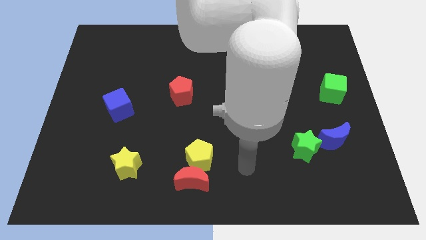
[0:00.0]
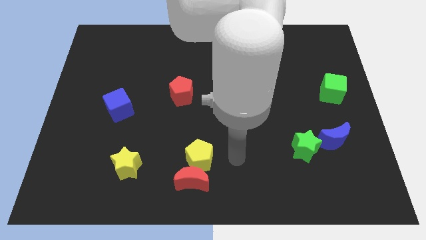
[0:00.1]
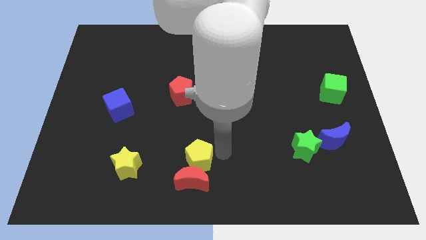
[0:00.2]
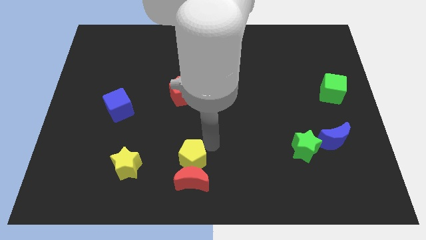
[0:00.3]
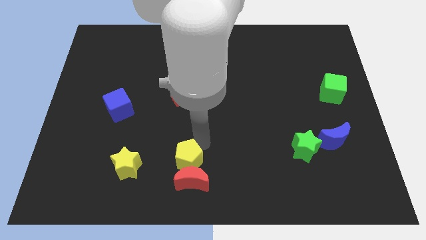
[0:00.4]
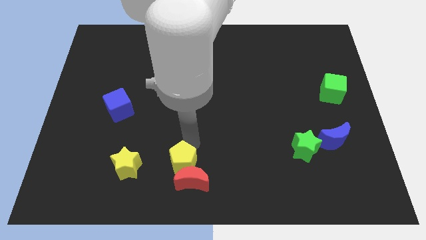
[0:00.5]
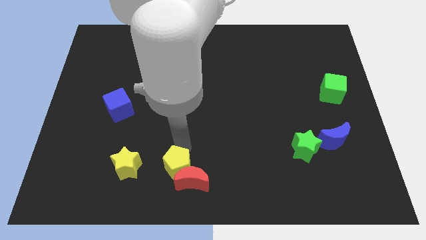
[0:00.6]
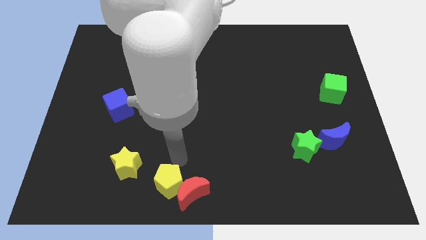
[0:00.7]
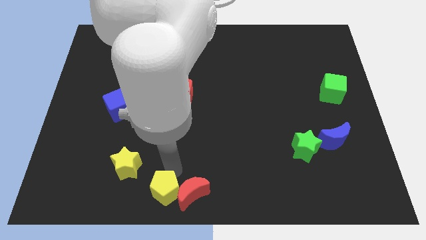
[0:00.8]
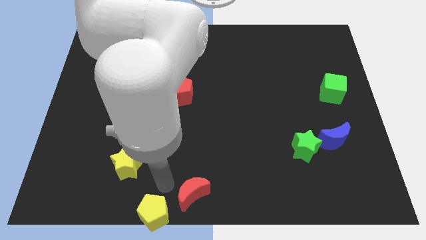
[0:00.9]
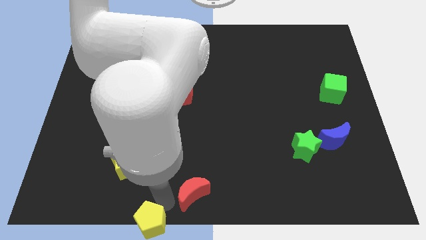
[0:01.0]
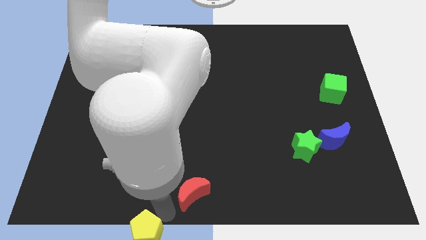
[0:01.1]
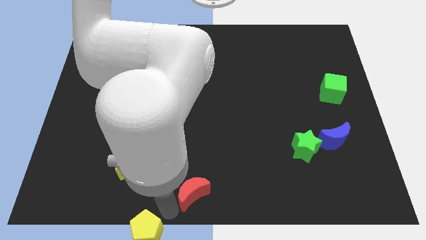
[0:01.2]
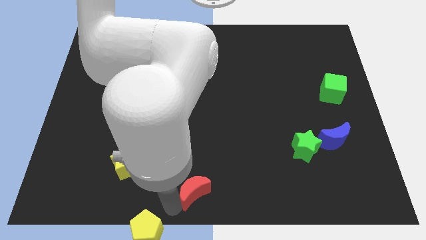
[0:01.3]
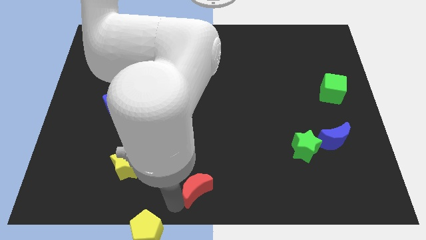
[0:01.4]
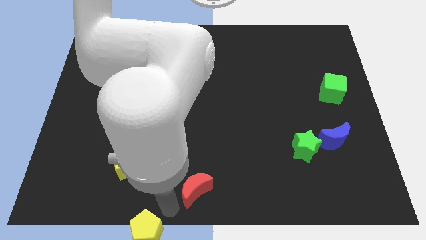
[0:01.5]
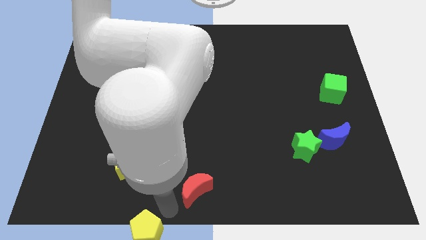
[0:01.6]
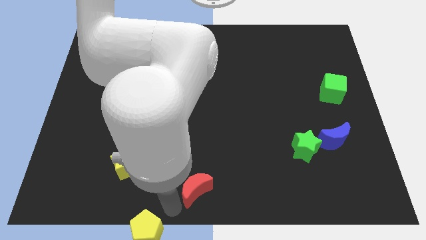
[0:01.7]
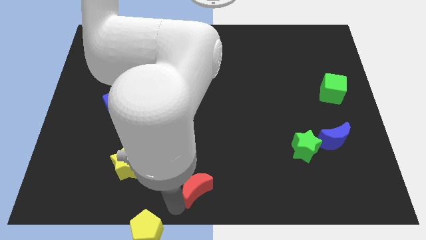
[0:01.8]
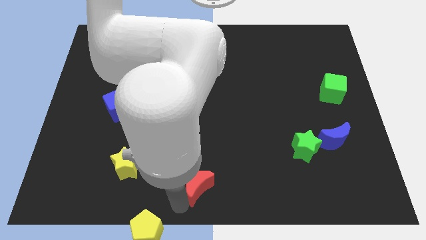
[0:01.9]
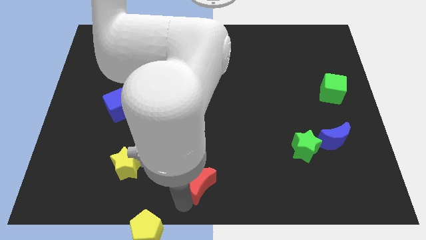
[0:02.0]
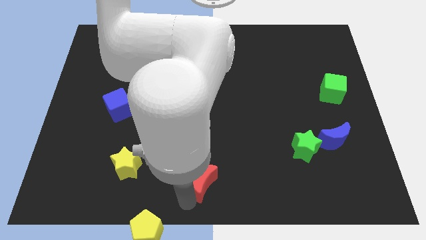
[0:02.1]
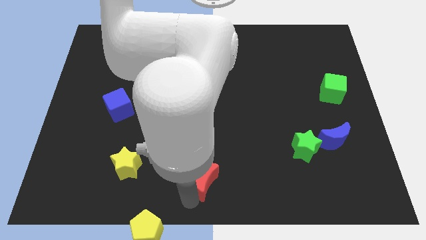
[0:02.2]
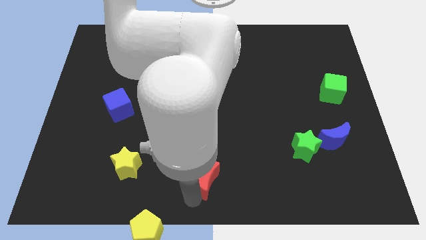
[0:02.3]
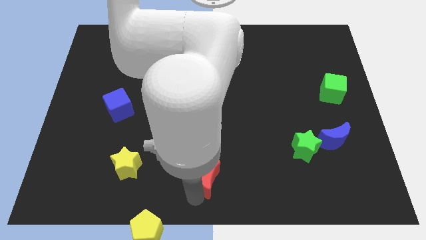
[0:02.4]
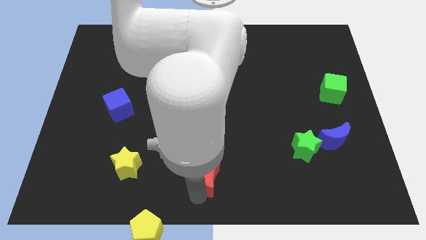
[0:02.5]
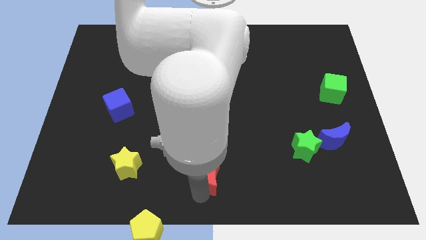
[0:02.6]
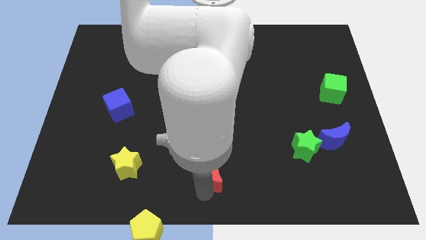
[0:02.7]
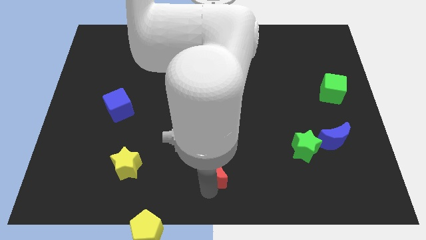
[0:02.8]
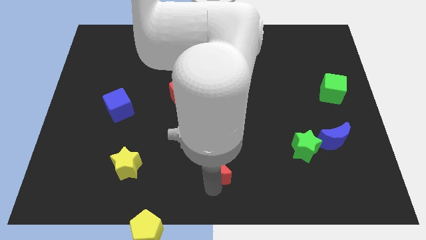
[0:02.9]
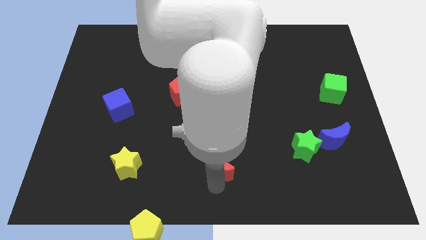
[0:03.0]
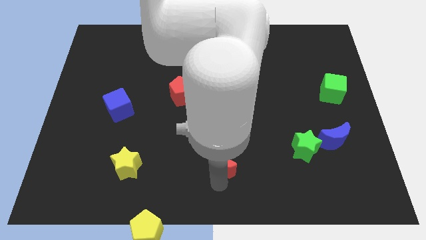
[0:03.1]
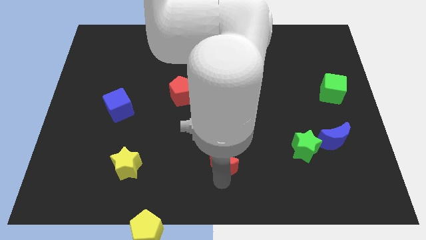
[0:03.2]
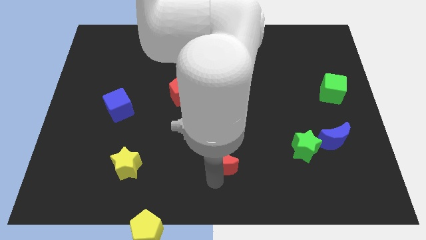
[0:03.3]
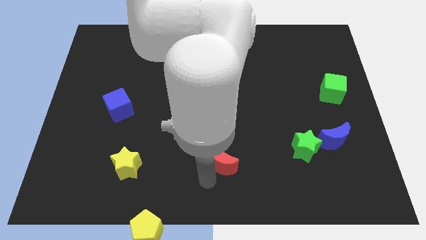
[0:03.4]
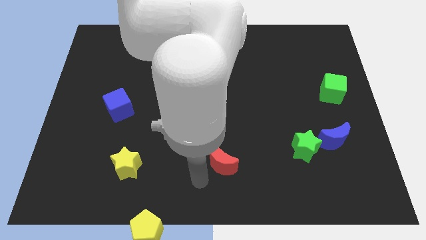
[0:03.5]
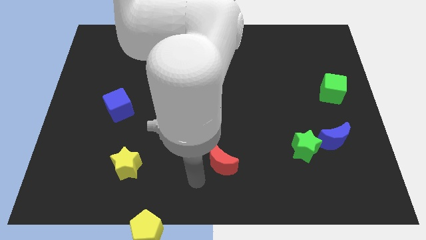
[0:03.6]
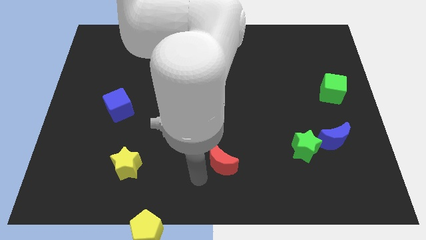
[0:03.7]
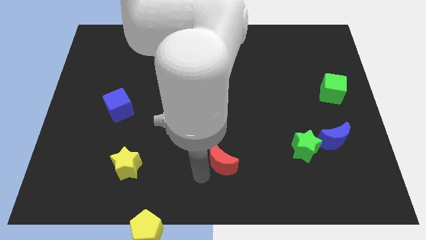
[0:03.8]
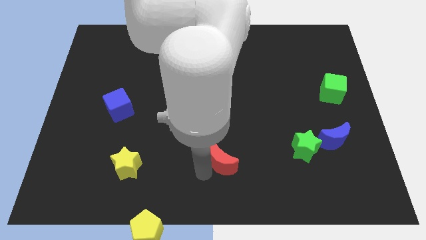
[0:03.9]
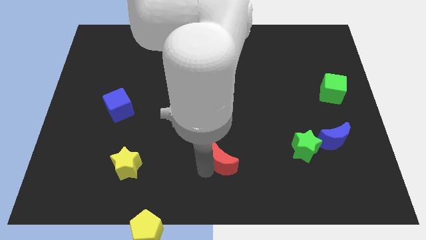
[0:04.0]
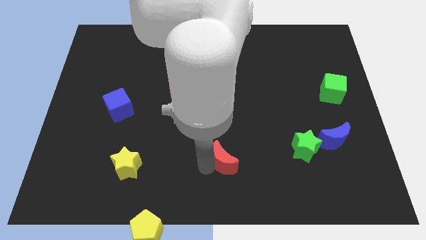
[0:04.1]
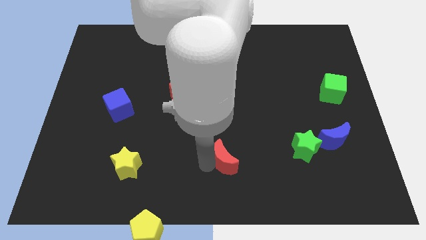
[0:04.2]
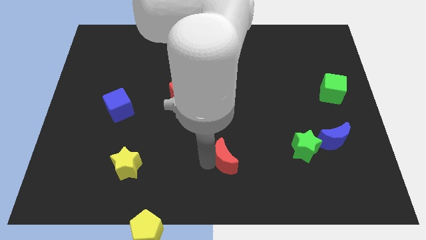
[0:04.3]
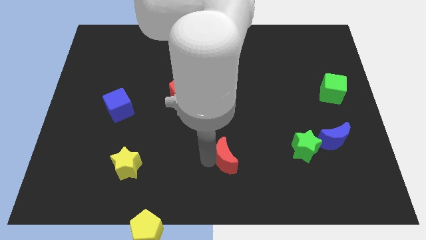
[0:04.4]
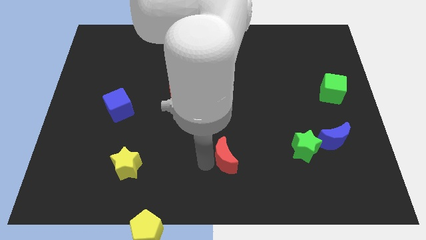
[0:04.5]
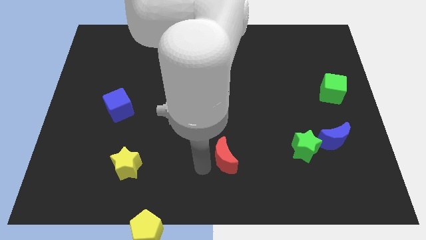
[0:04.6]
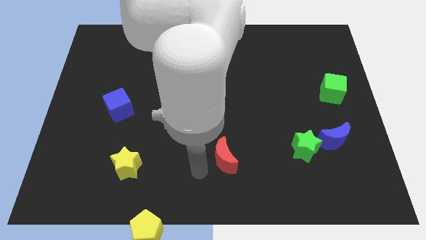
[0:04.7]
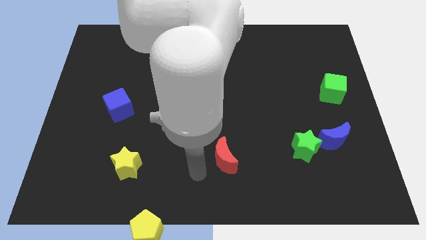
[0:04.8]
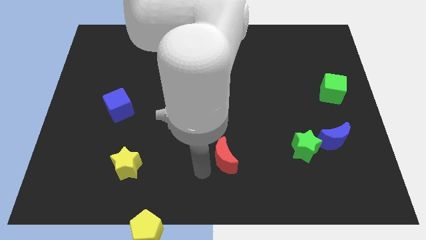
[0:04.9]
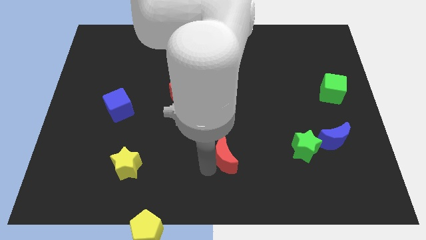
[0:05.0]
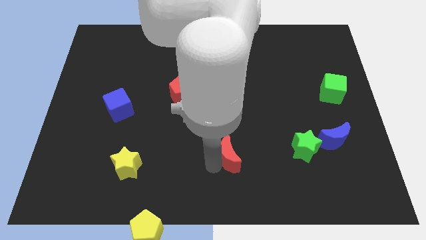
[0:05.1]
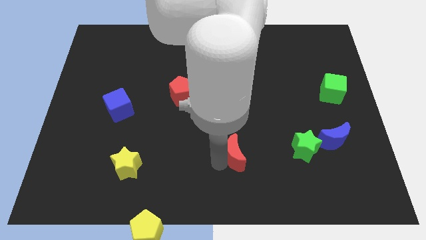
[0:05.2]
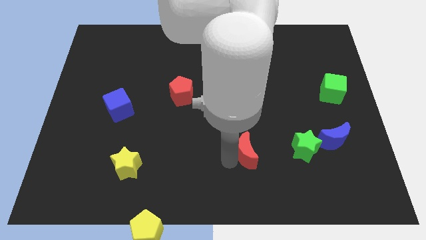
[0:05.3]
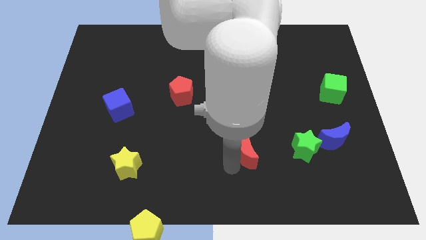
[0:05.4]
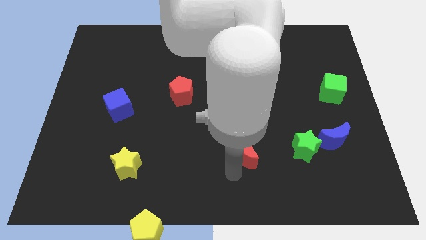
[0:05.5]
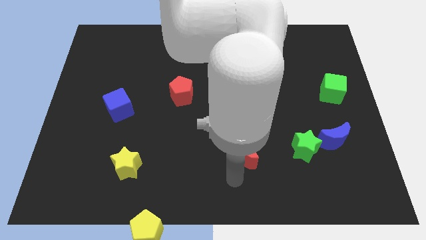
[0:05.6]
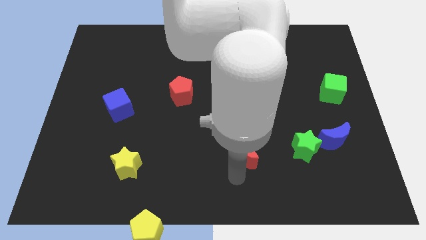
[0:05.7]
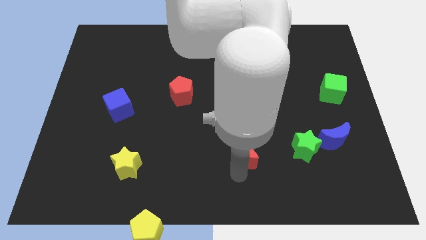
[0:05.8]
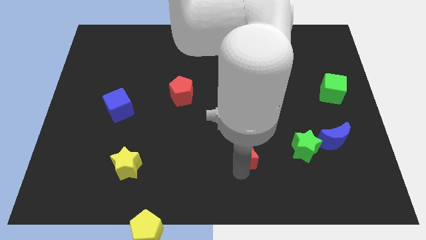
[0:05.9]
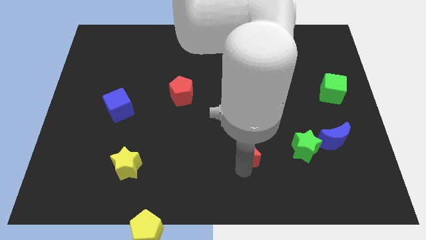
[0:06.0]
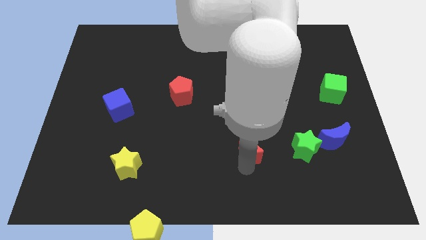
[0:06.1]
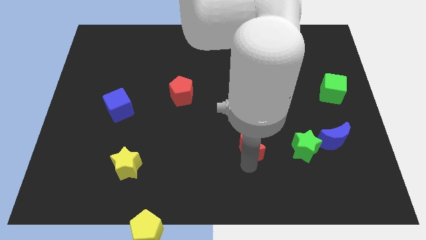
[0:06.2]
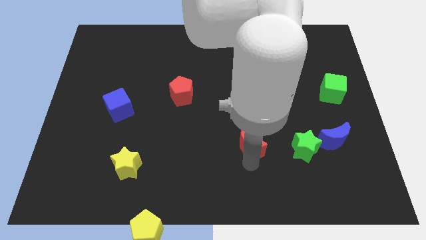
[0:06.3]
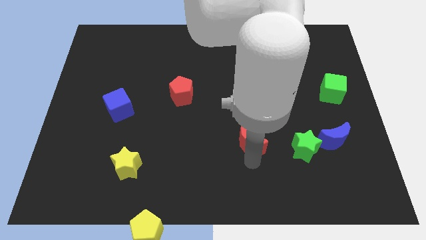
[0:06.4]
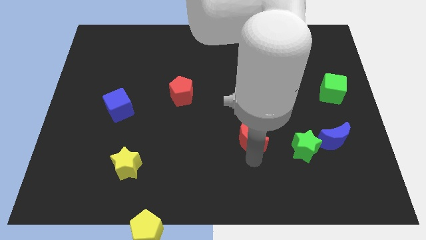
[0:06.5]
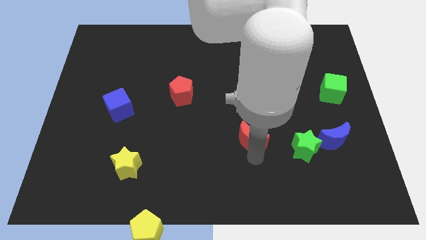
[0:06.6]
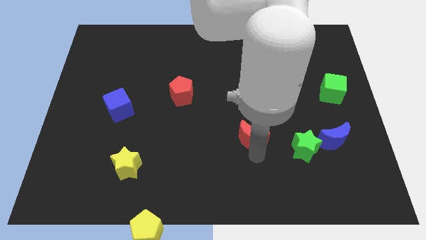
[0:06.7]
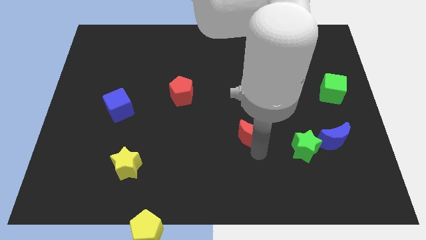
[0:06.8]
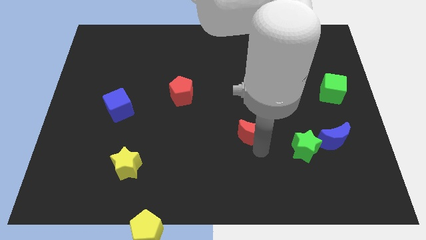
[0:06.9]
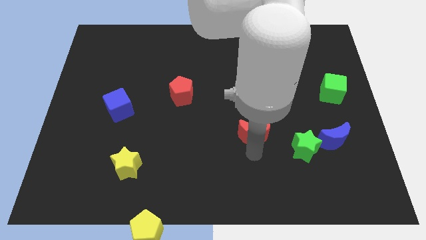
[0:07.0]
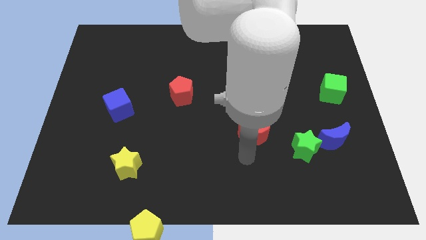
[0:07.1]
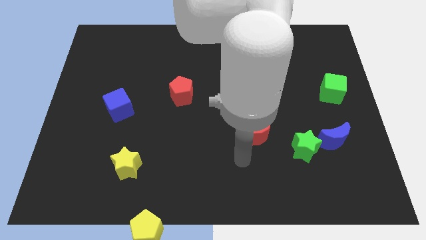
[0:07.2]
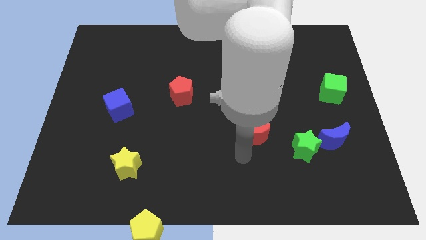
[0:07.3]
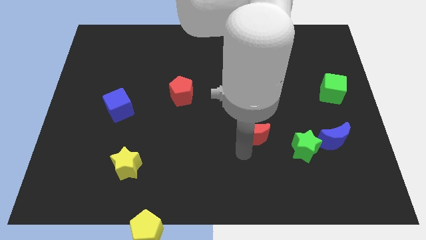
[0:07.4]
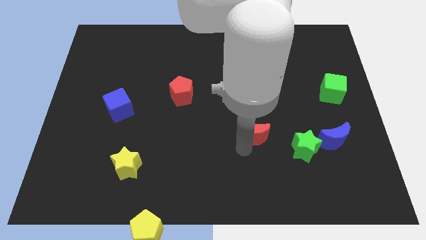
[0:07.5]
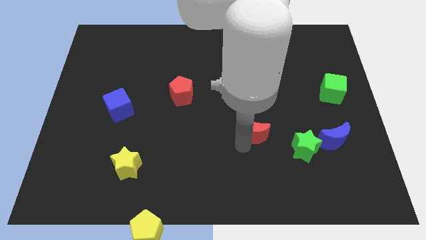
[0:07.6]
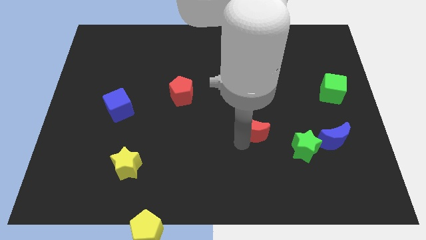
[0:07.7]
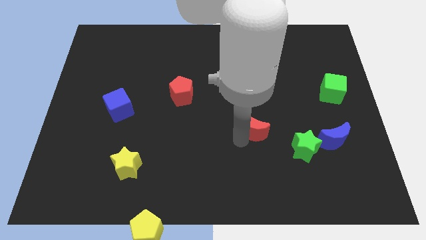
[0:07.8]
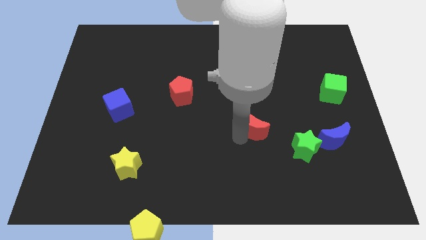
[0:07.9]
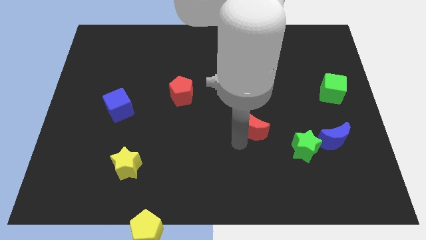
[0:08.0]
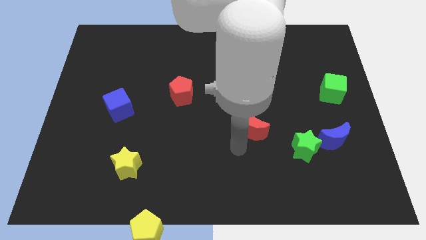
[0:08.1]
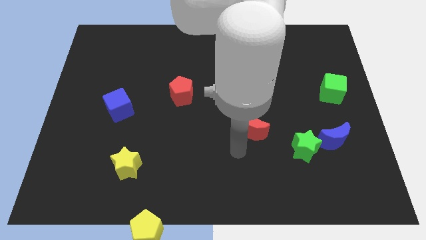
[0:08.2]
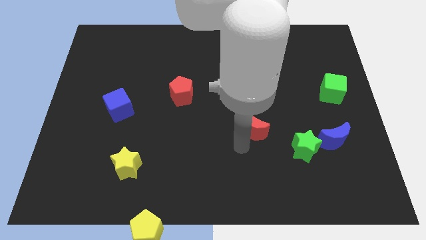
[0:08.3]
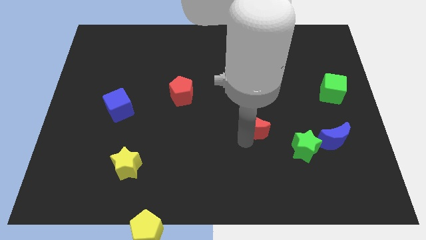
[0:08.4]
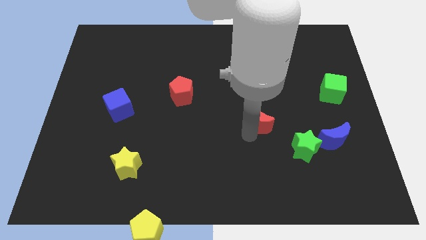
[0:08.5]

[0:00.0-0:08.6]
move the red moon diagonally up and to the right
